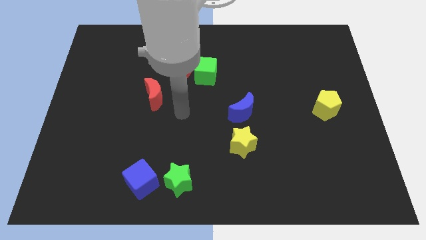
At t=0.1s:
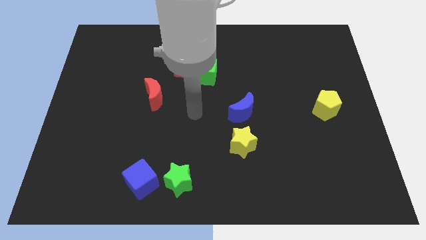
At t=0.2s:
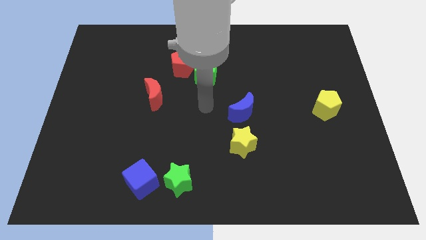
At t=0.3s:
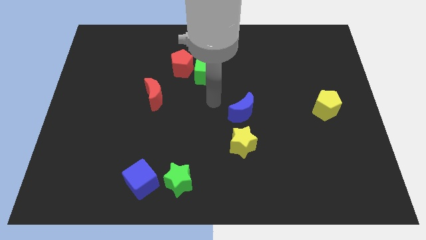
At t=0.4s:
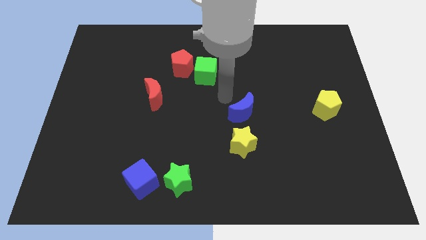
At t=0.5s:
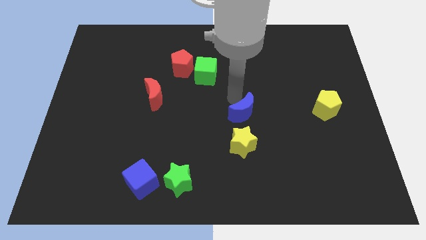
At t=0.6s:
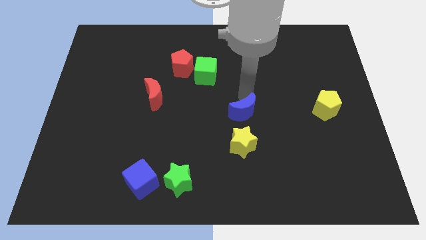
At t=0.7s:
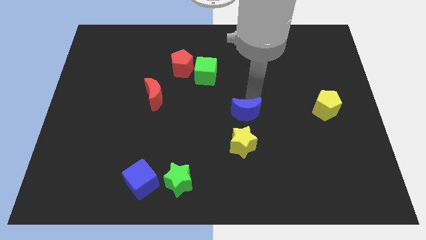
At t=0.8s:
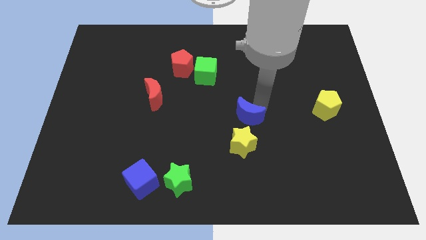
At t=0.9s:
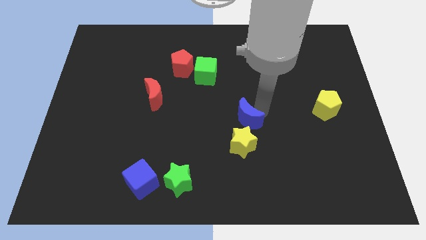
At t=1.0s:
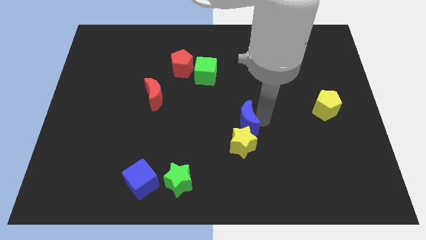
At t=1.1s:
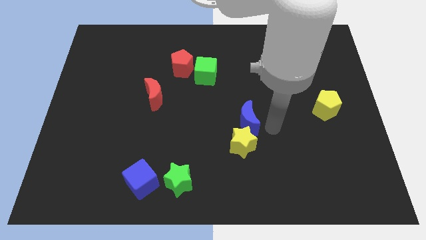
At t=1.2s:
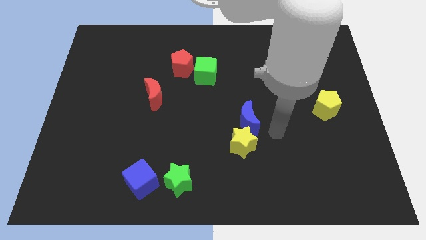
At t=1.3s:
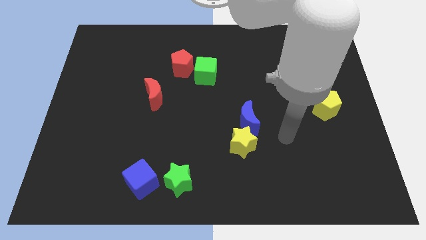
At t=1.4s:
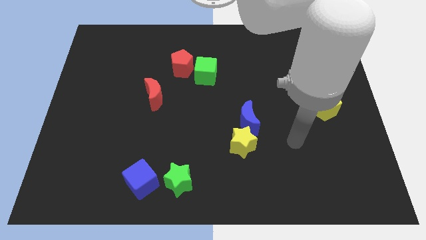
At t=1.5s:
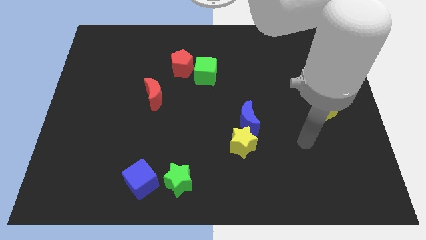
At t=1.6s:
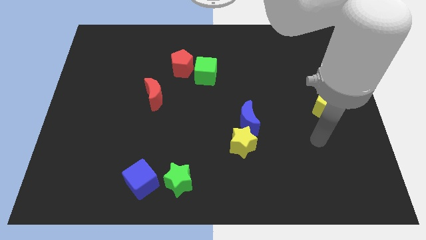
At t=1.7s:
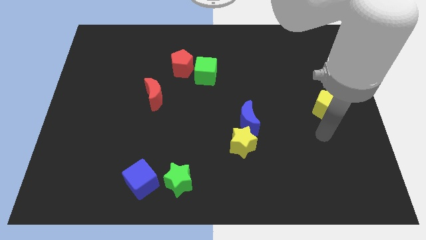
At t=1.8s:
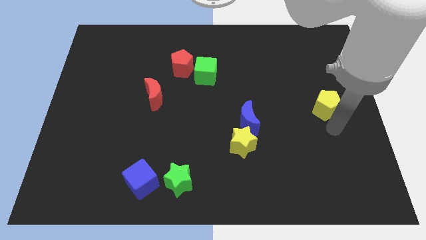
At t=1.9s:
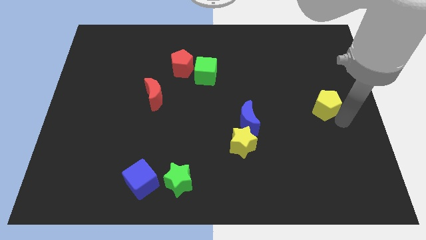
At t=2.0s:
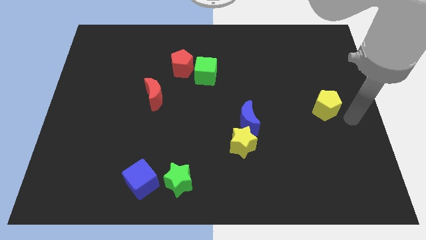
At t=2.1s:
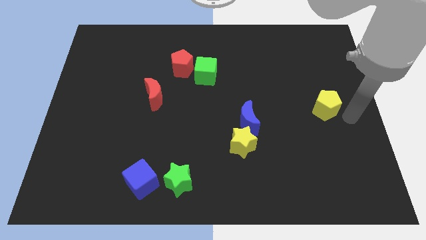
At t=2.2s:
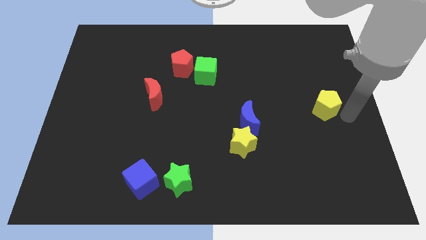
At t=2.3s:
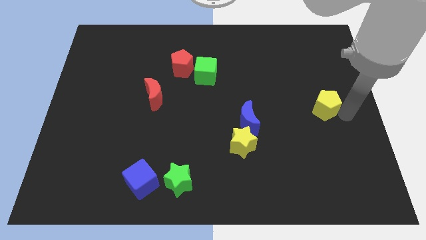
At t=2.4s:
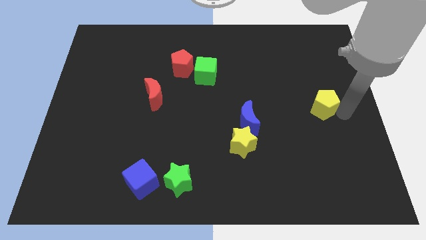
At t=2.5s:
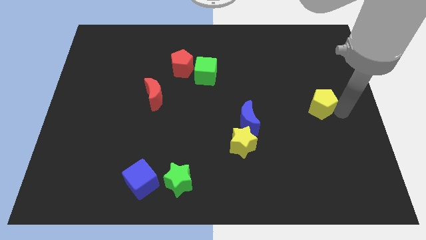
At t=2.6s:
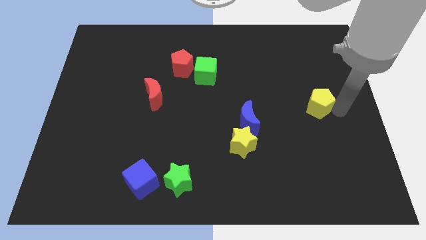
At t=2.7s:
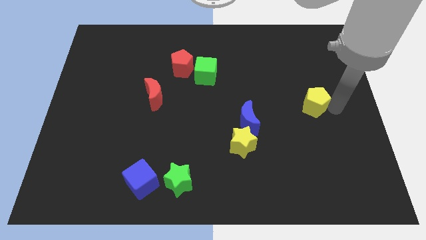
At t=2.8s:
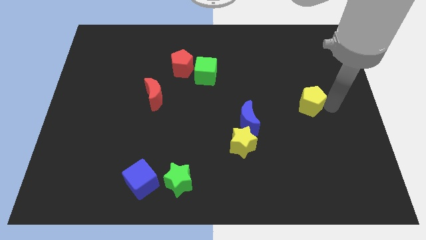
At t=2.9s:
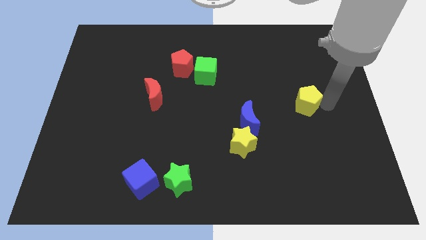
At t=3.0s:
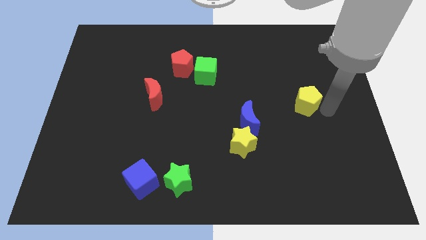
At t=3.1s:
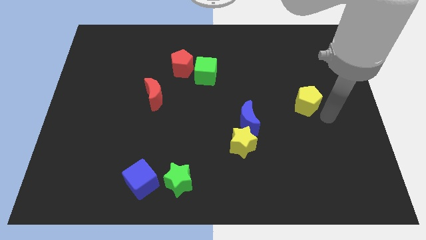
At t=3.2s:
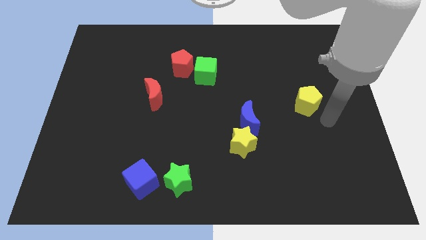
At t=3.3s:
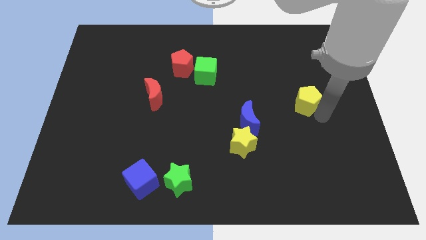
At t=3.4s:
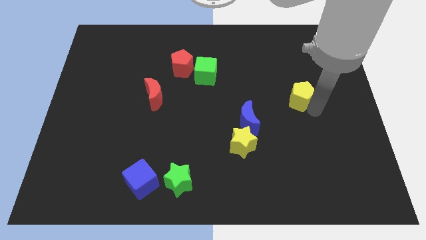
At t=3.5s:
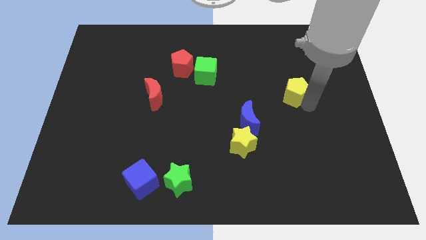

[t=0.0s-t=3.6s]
slightly push the yellow pentagon diagonally up and left

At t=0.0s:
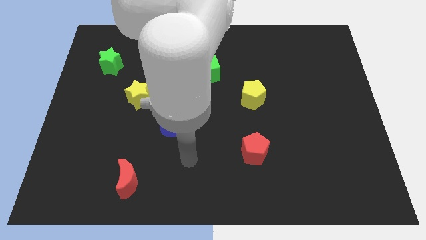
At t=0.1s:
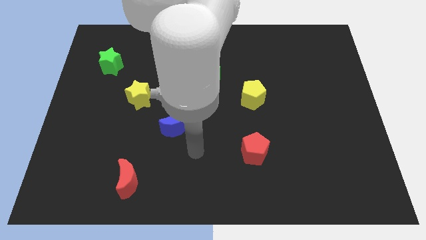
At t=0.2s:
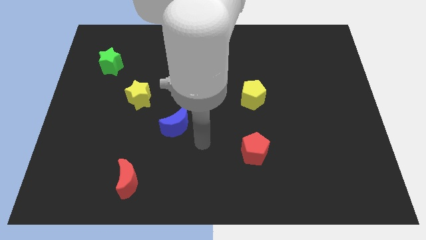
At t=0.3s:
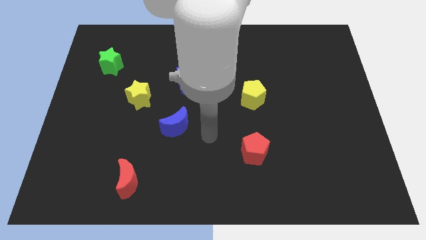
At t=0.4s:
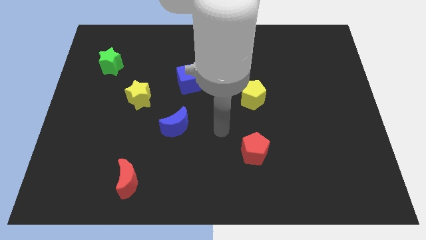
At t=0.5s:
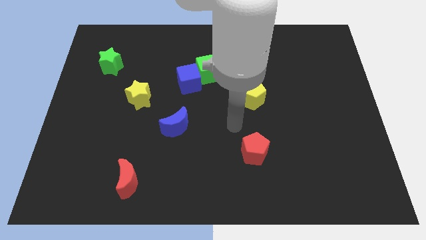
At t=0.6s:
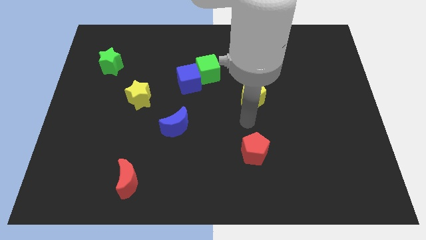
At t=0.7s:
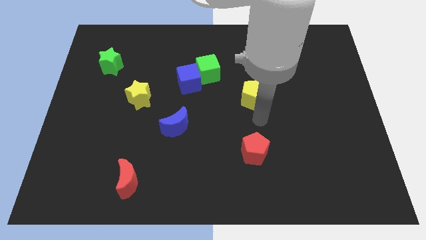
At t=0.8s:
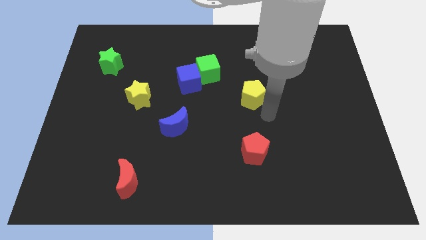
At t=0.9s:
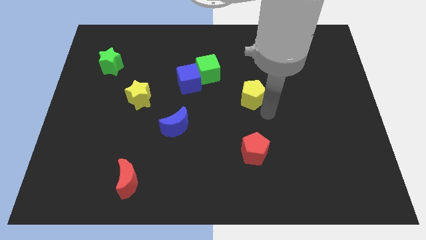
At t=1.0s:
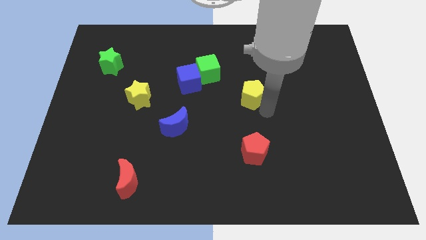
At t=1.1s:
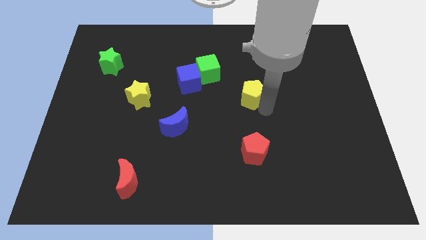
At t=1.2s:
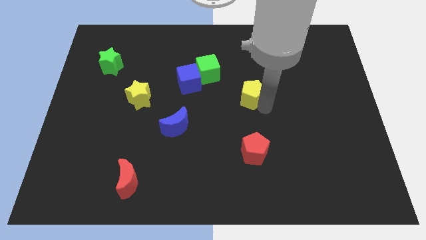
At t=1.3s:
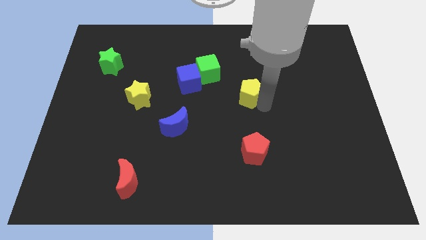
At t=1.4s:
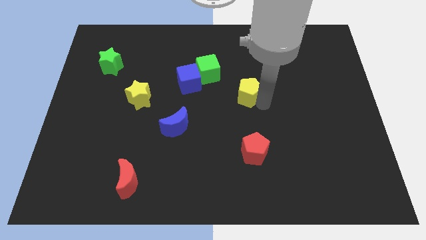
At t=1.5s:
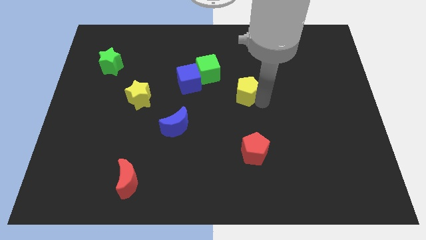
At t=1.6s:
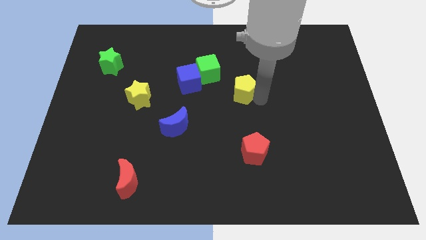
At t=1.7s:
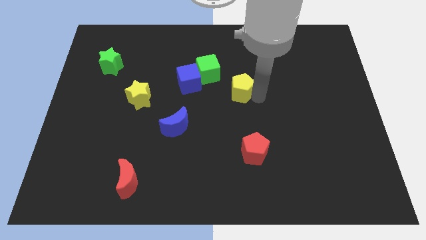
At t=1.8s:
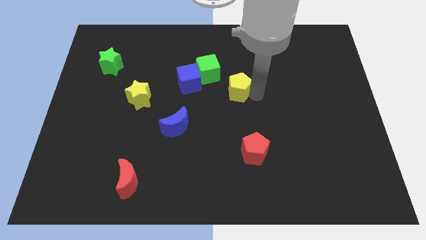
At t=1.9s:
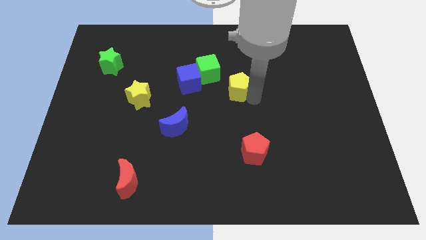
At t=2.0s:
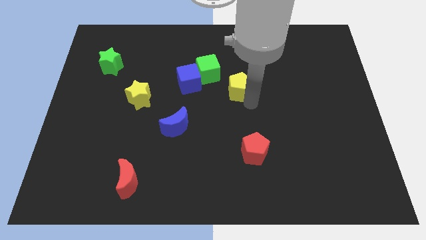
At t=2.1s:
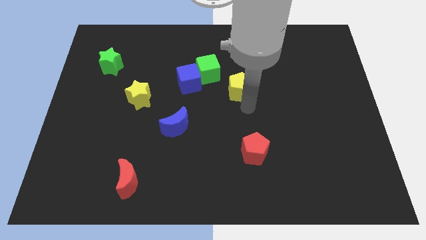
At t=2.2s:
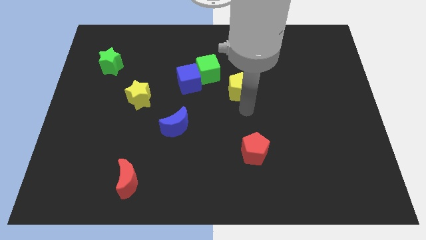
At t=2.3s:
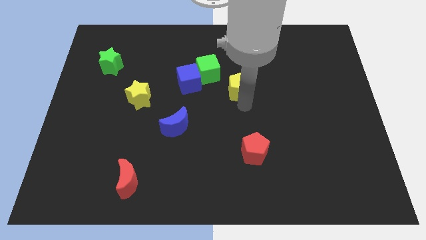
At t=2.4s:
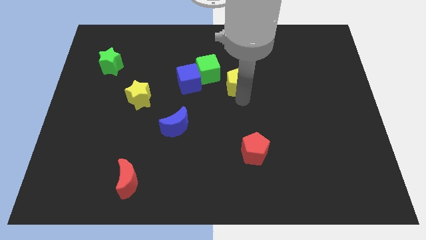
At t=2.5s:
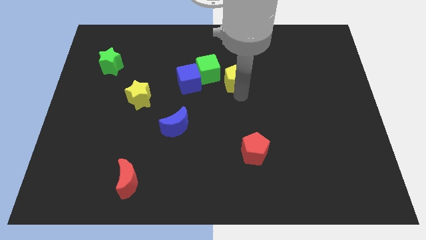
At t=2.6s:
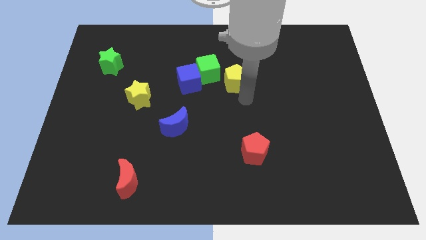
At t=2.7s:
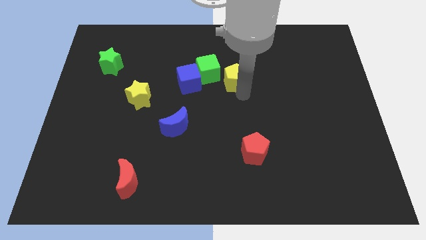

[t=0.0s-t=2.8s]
slightly slide the yellow pentagon up and then left

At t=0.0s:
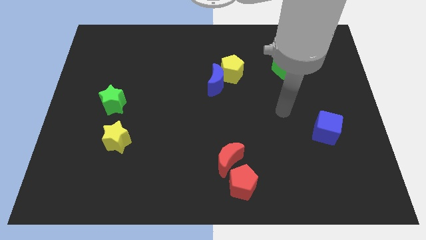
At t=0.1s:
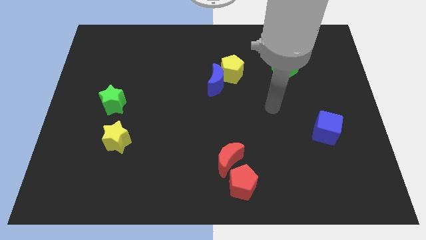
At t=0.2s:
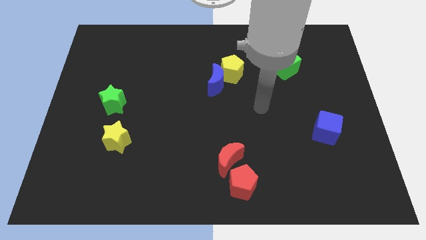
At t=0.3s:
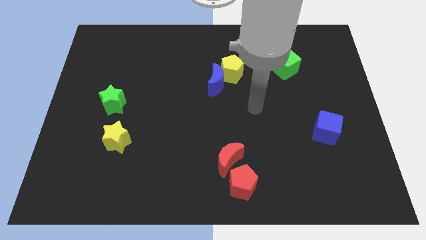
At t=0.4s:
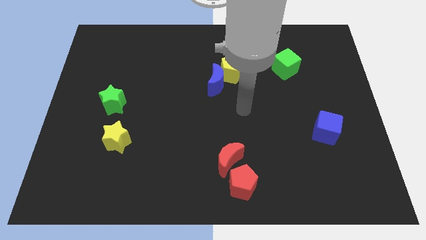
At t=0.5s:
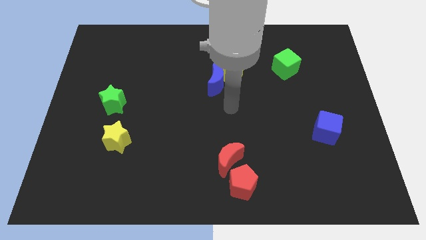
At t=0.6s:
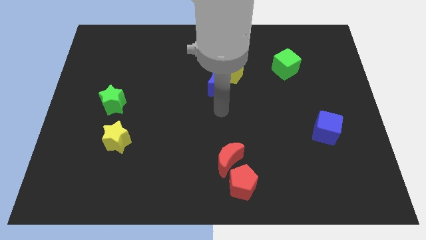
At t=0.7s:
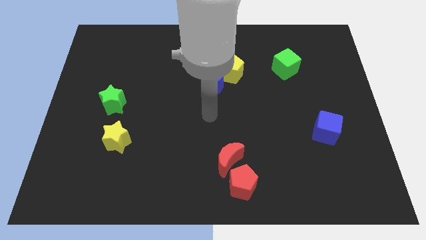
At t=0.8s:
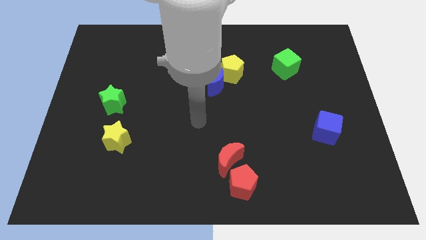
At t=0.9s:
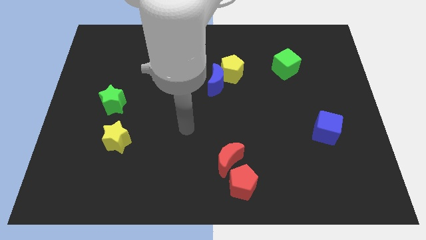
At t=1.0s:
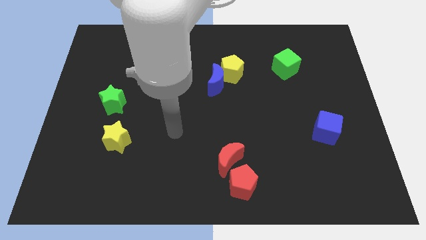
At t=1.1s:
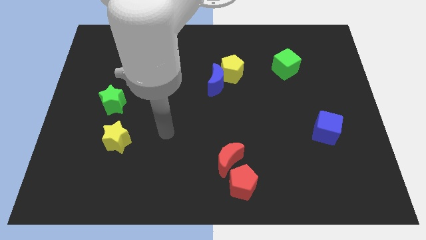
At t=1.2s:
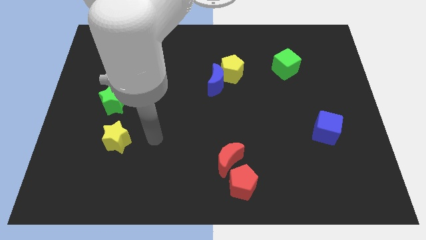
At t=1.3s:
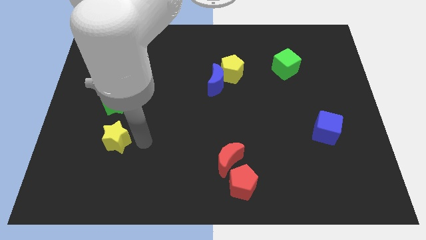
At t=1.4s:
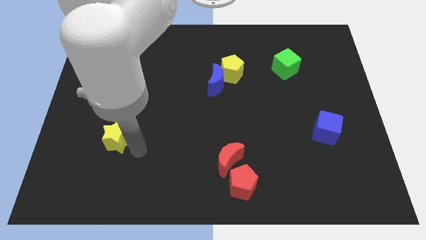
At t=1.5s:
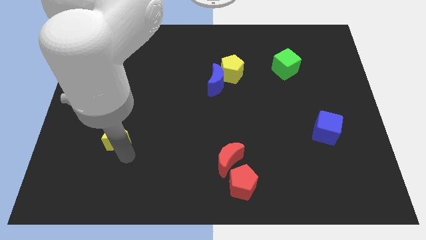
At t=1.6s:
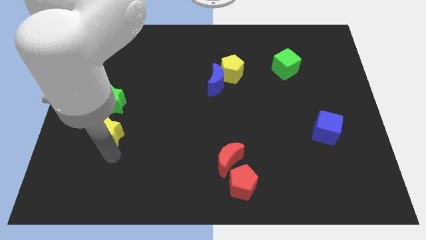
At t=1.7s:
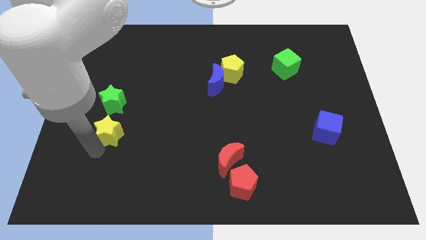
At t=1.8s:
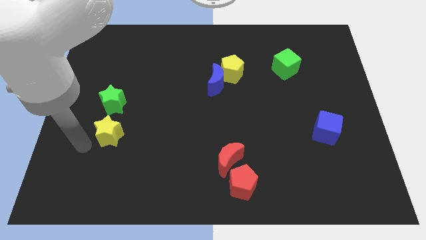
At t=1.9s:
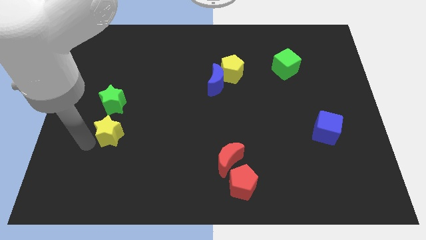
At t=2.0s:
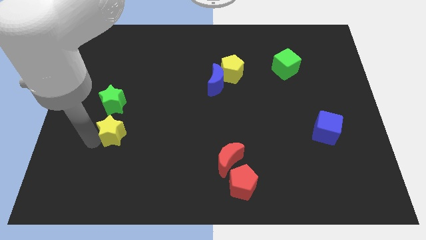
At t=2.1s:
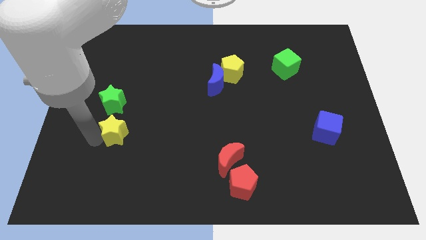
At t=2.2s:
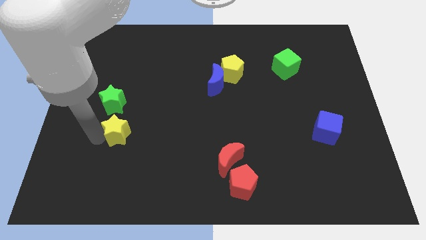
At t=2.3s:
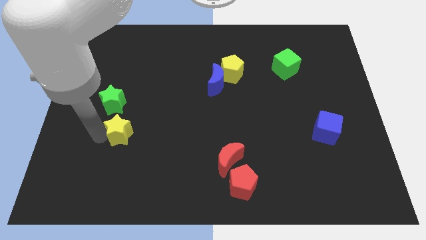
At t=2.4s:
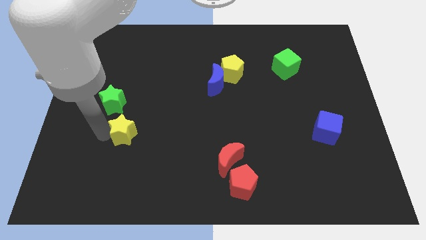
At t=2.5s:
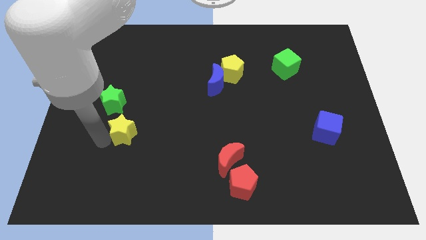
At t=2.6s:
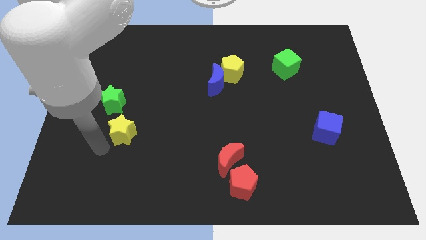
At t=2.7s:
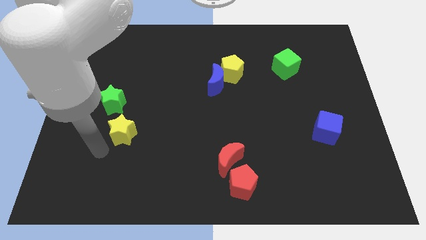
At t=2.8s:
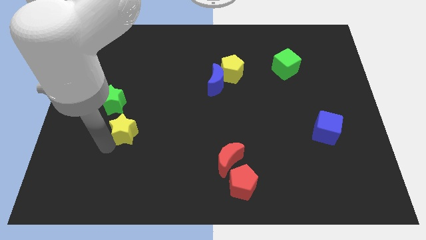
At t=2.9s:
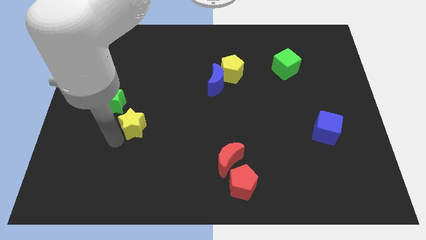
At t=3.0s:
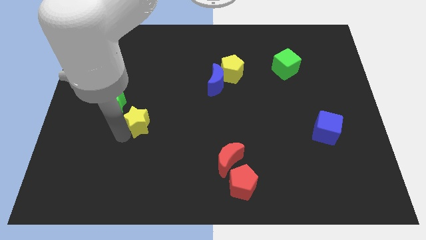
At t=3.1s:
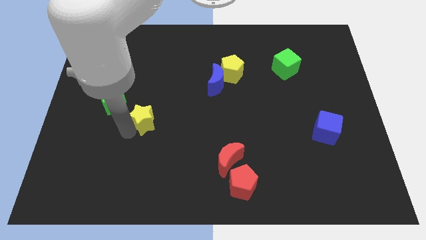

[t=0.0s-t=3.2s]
slide the yellow star upwards and to the right a little
